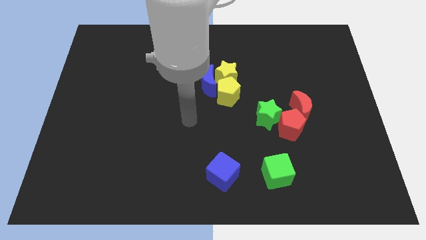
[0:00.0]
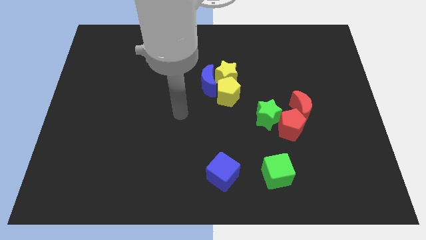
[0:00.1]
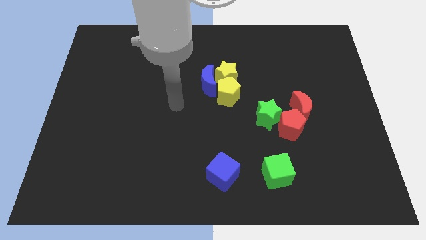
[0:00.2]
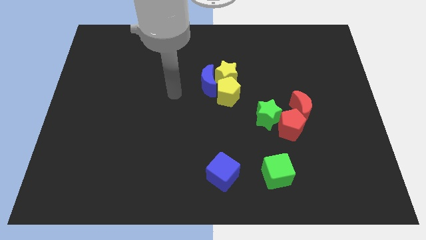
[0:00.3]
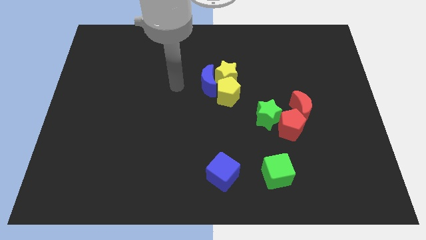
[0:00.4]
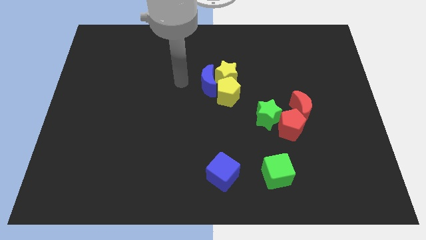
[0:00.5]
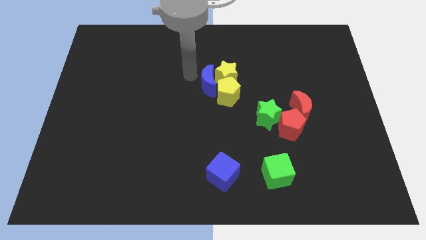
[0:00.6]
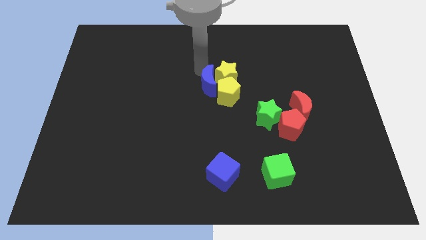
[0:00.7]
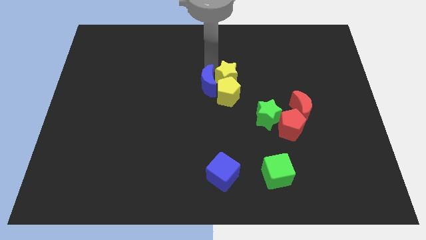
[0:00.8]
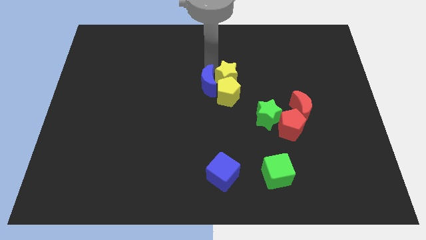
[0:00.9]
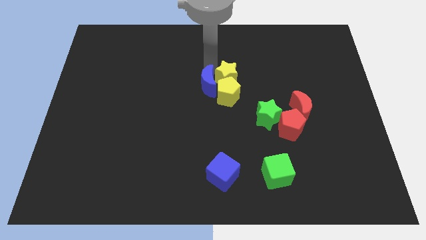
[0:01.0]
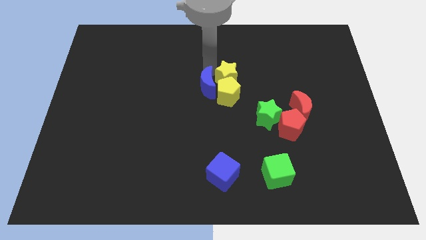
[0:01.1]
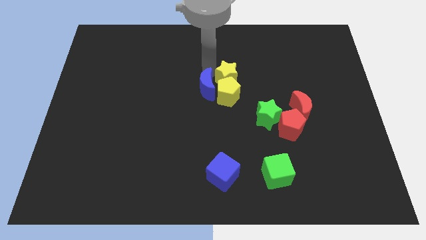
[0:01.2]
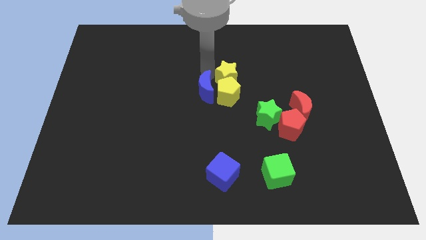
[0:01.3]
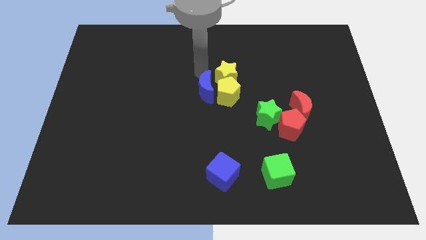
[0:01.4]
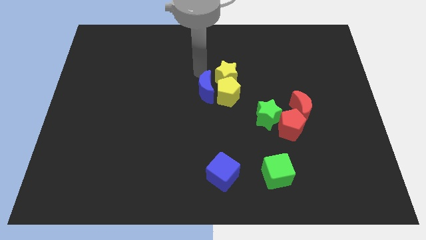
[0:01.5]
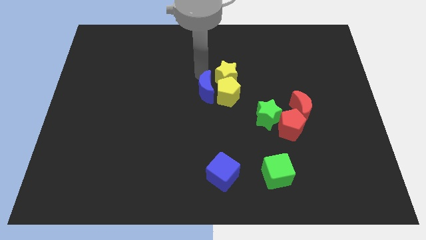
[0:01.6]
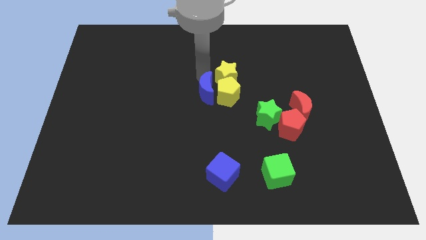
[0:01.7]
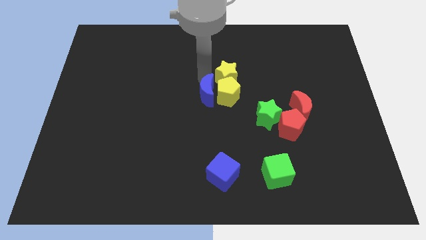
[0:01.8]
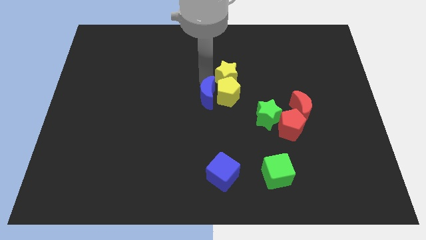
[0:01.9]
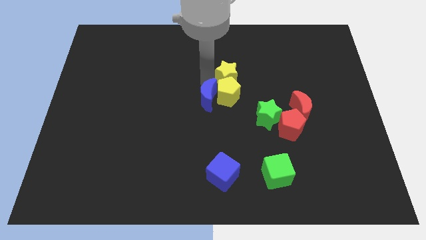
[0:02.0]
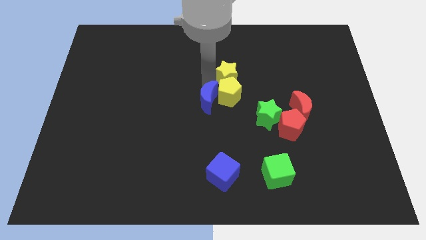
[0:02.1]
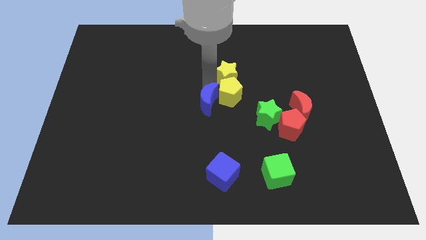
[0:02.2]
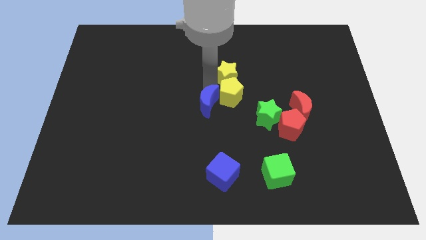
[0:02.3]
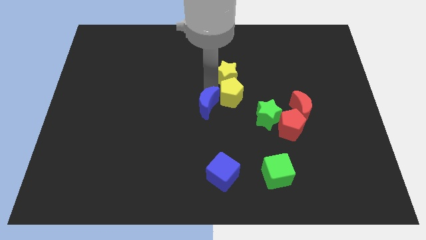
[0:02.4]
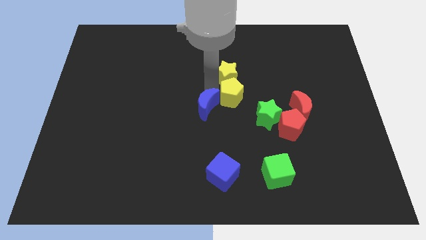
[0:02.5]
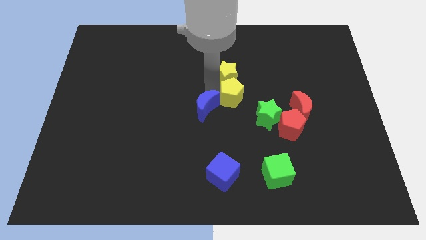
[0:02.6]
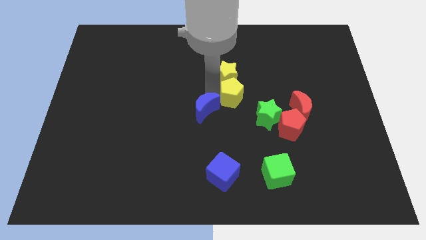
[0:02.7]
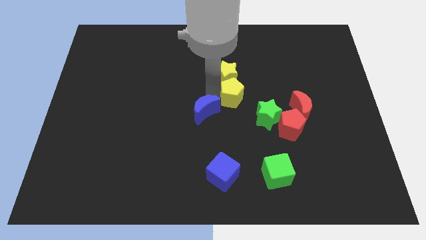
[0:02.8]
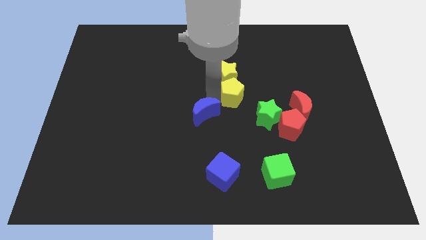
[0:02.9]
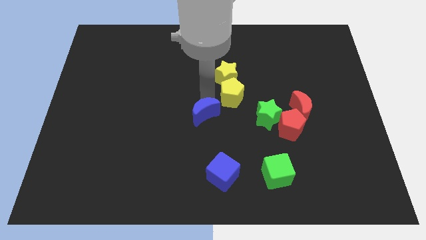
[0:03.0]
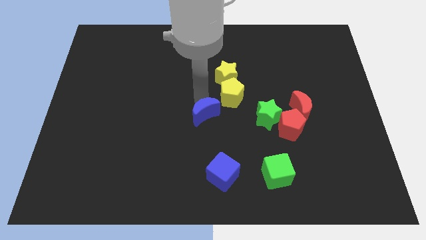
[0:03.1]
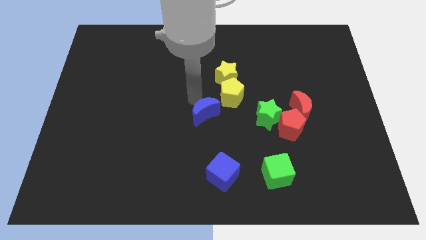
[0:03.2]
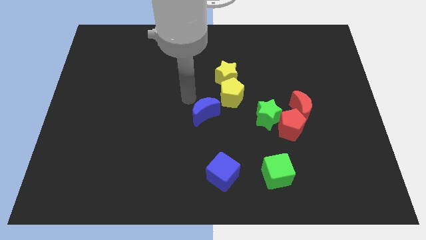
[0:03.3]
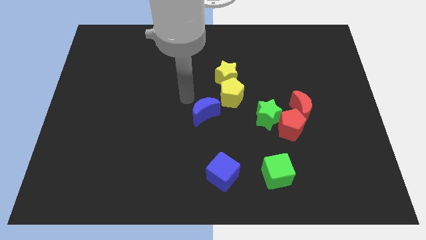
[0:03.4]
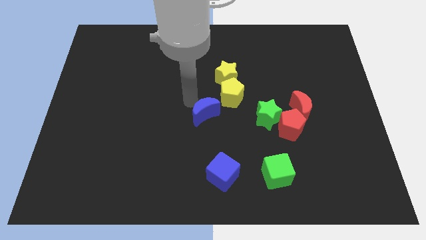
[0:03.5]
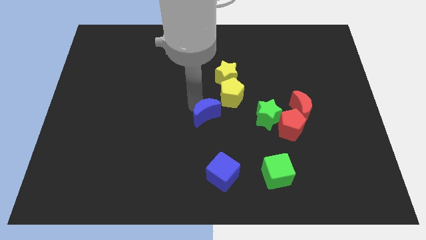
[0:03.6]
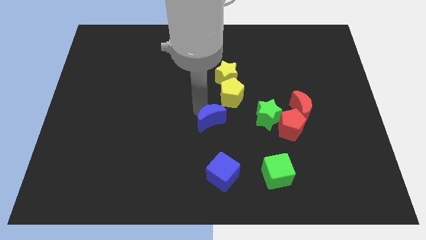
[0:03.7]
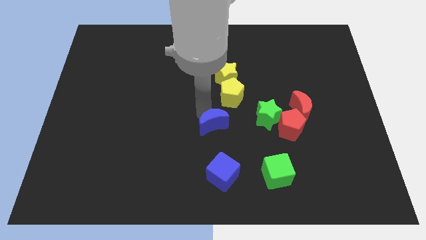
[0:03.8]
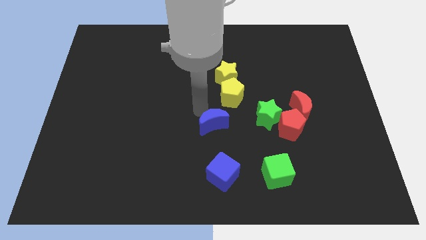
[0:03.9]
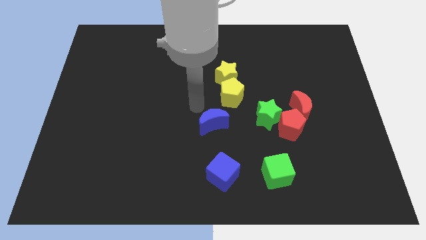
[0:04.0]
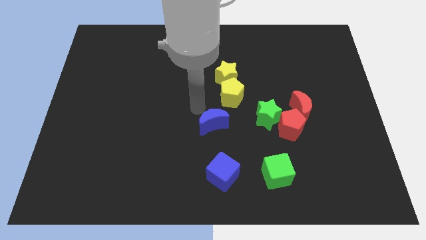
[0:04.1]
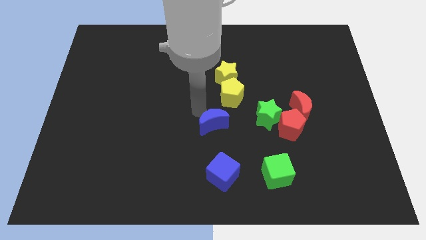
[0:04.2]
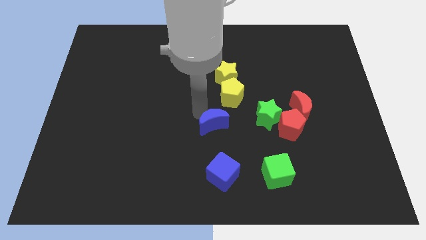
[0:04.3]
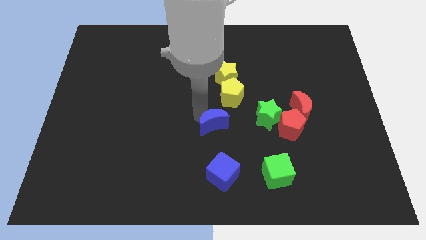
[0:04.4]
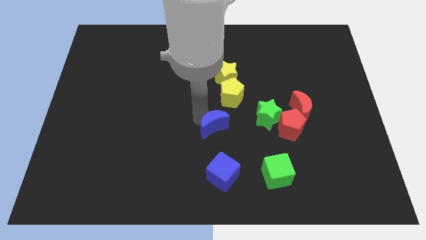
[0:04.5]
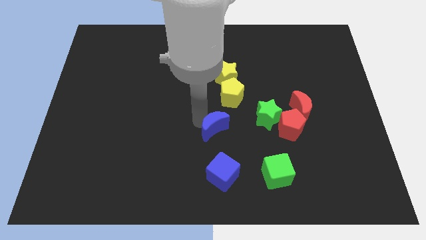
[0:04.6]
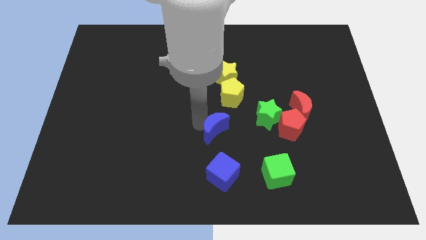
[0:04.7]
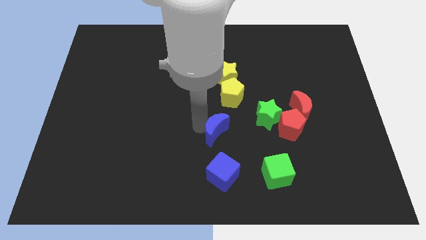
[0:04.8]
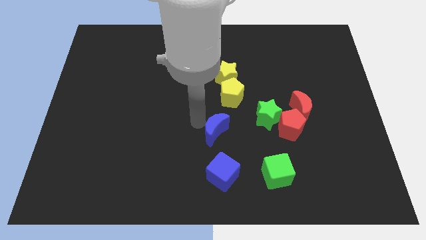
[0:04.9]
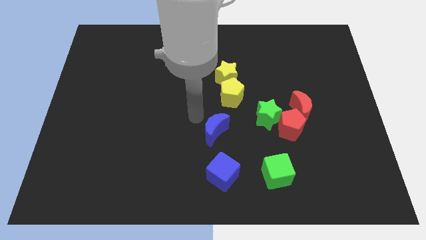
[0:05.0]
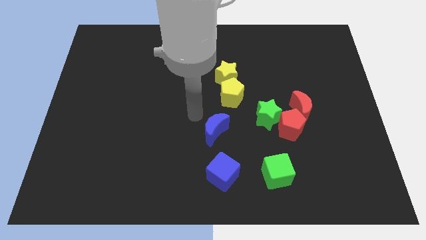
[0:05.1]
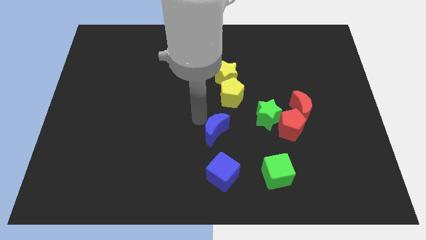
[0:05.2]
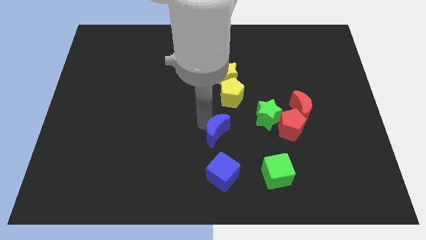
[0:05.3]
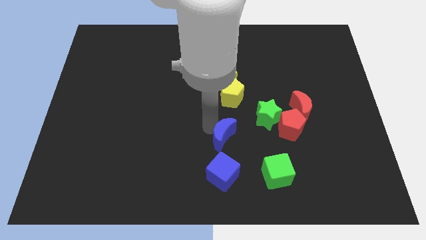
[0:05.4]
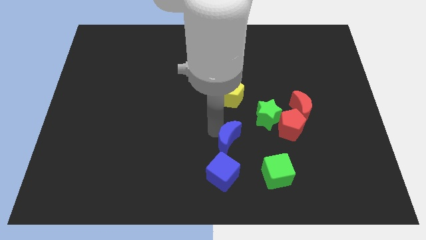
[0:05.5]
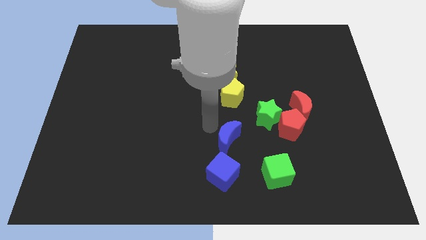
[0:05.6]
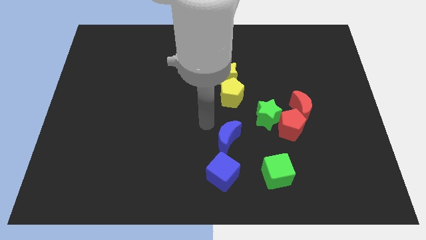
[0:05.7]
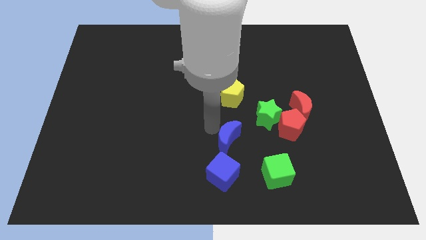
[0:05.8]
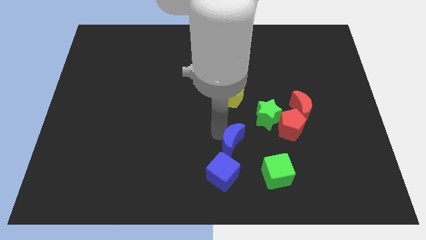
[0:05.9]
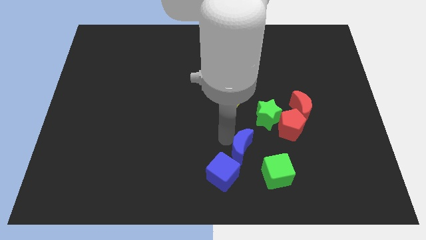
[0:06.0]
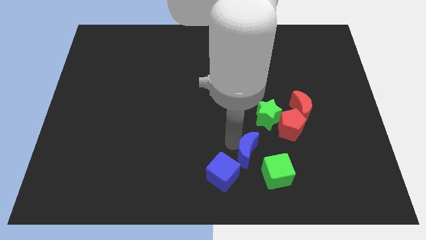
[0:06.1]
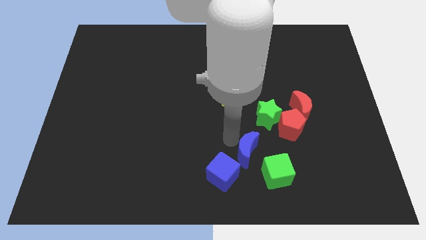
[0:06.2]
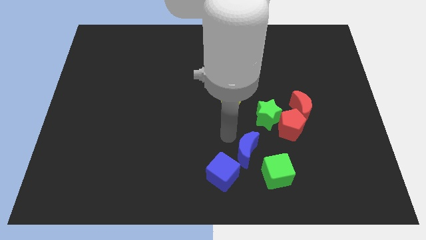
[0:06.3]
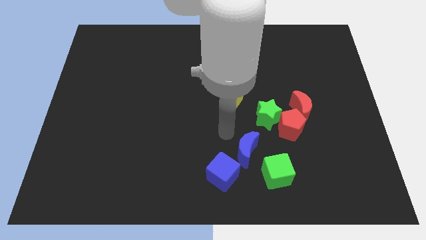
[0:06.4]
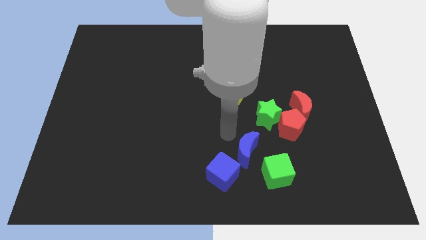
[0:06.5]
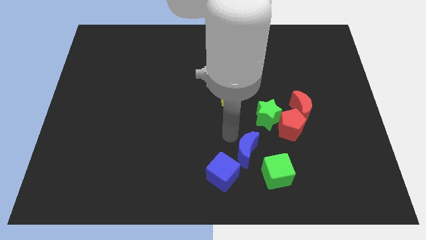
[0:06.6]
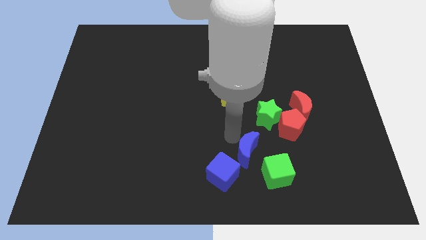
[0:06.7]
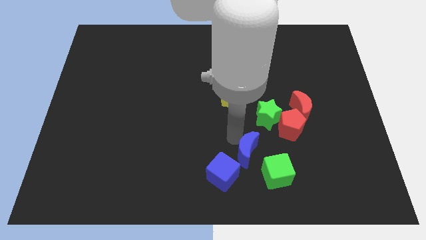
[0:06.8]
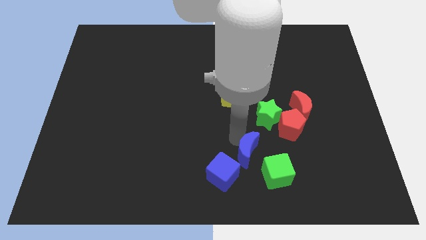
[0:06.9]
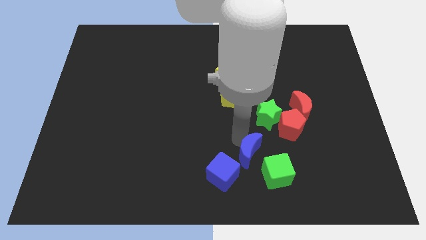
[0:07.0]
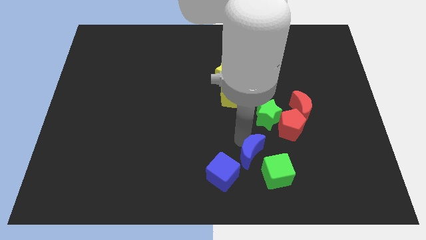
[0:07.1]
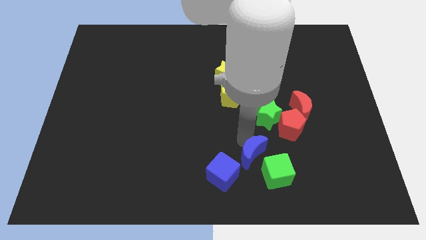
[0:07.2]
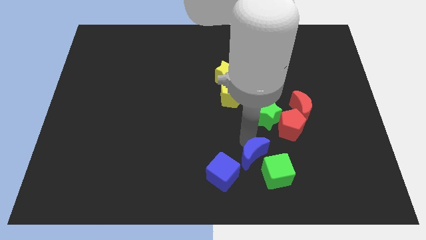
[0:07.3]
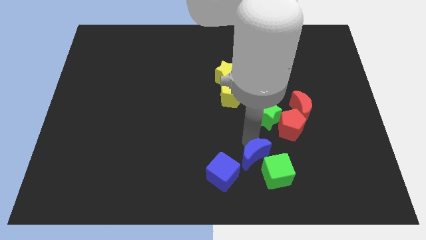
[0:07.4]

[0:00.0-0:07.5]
slide the blue moon towards the green cube
